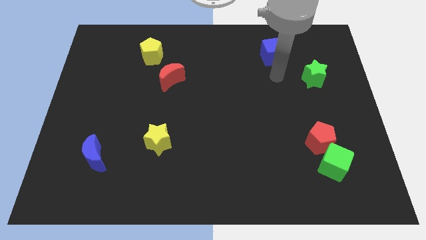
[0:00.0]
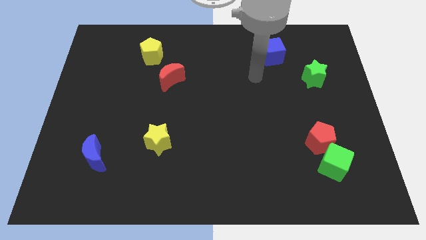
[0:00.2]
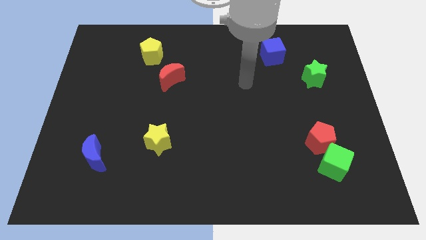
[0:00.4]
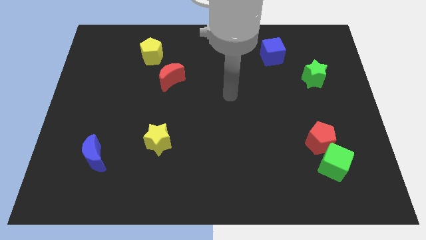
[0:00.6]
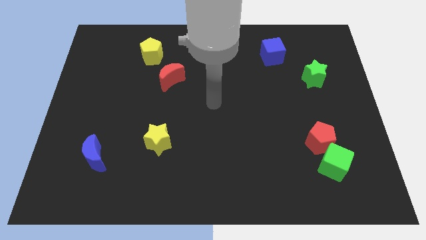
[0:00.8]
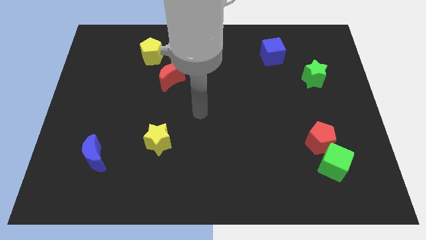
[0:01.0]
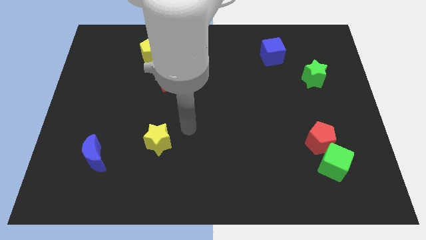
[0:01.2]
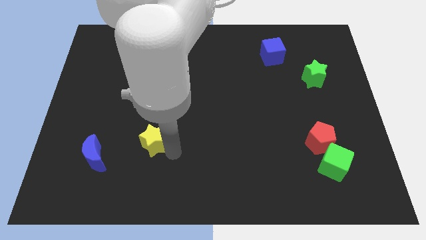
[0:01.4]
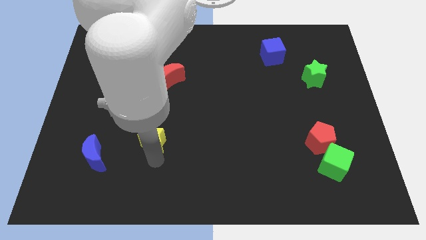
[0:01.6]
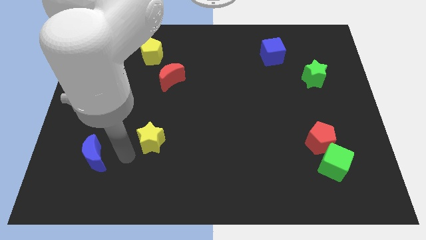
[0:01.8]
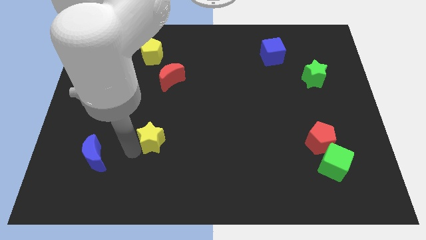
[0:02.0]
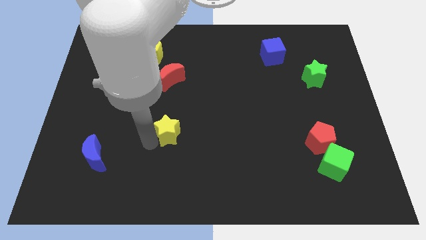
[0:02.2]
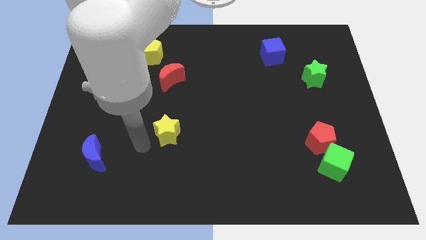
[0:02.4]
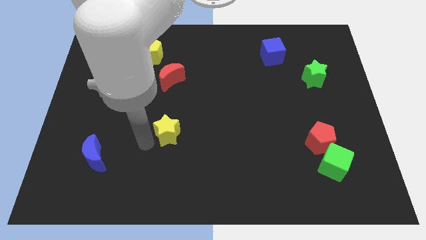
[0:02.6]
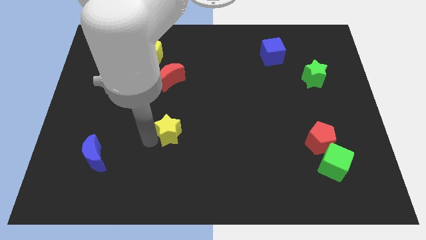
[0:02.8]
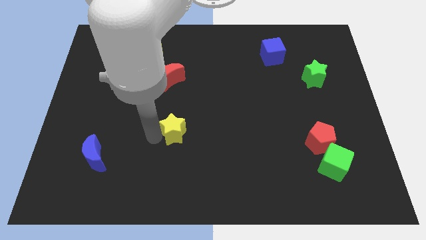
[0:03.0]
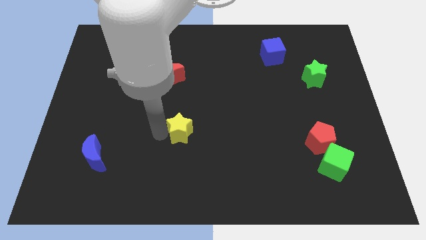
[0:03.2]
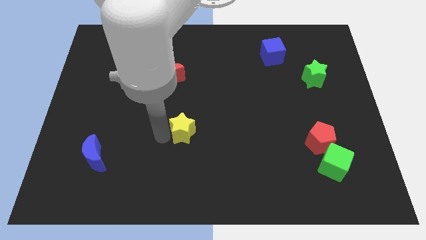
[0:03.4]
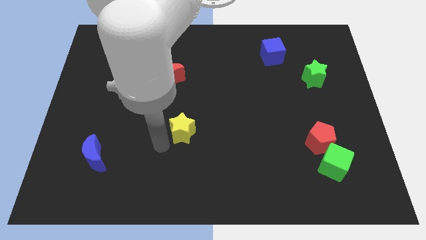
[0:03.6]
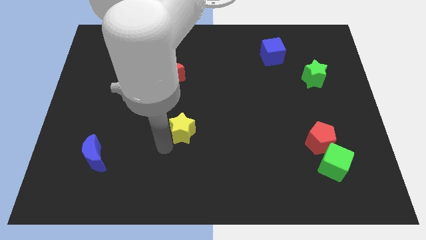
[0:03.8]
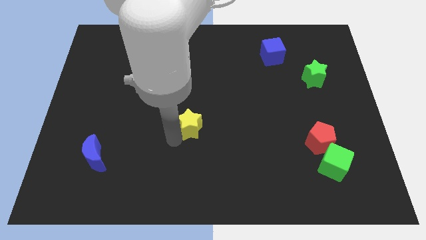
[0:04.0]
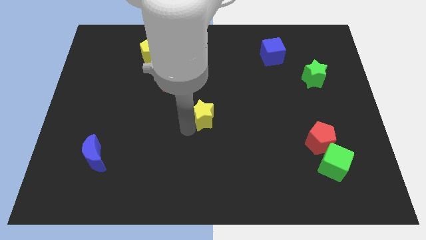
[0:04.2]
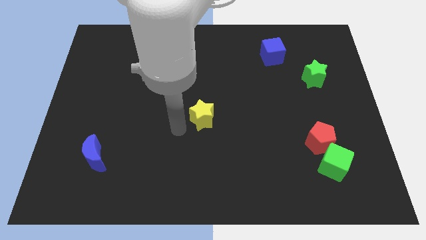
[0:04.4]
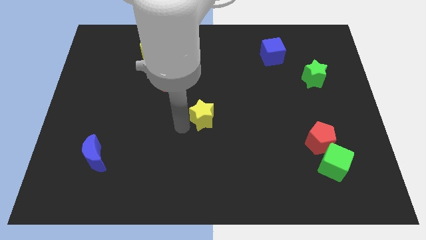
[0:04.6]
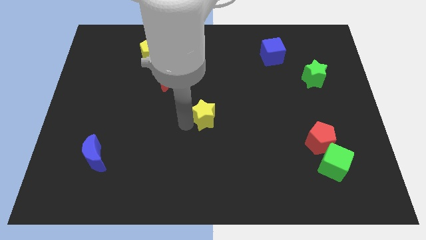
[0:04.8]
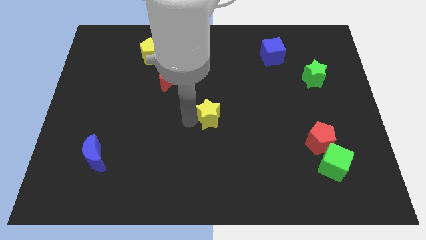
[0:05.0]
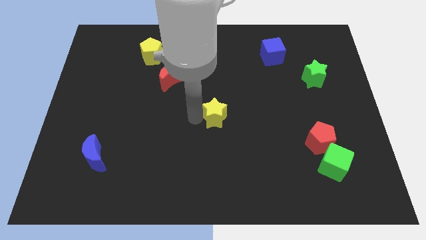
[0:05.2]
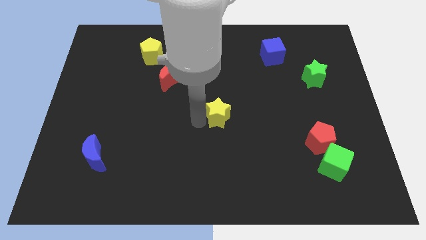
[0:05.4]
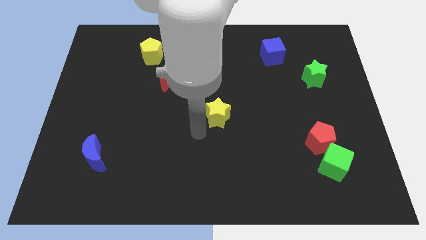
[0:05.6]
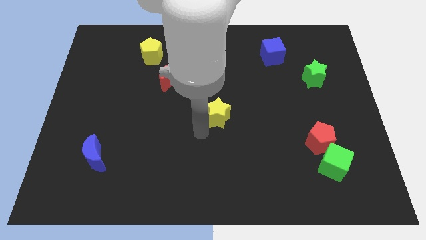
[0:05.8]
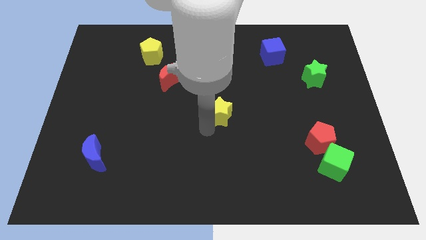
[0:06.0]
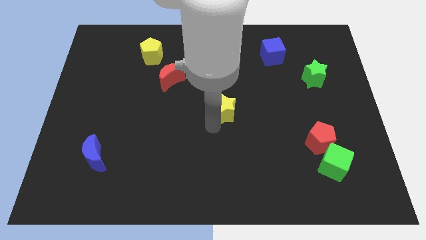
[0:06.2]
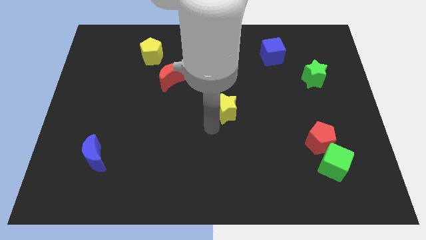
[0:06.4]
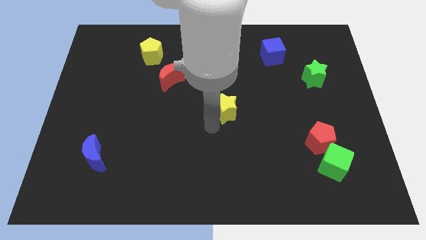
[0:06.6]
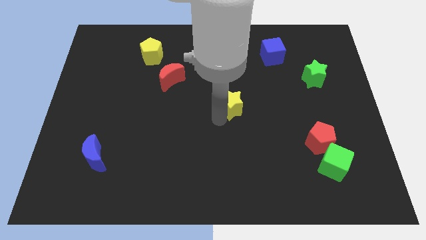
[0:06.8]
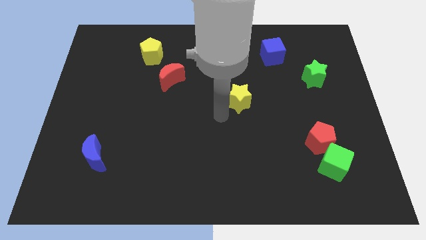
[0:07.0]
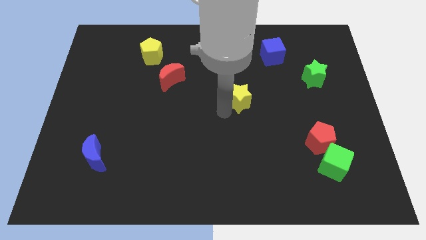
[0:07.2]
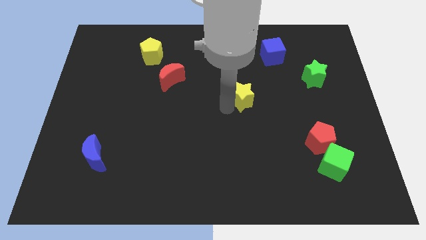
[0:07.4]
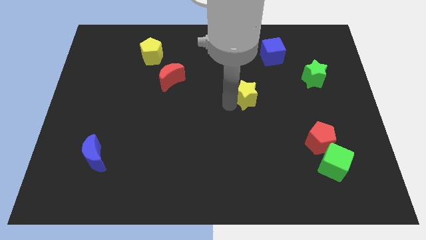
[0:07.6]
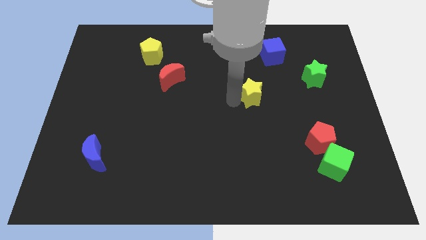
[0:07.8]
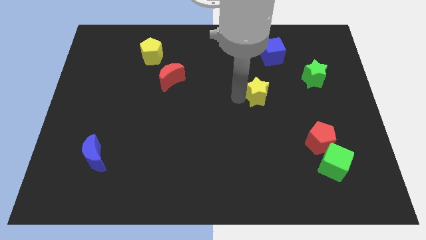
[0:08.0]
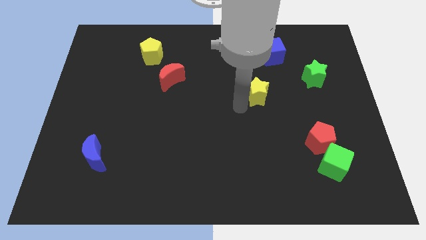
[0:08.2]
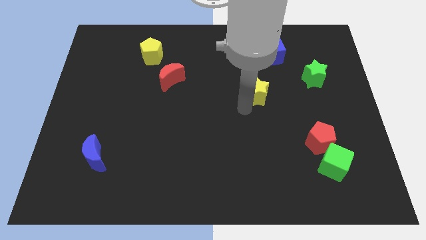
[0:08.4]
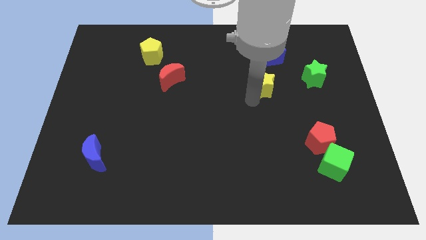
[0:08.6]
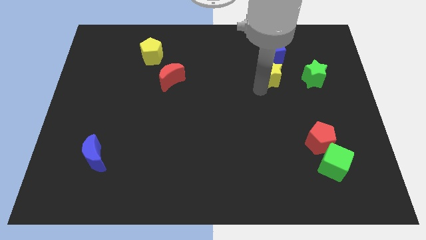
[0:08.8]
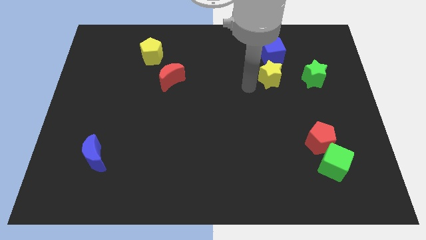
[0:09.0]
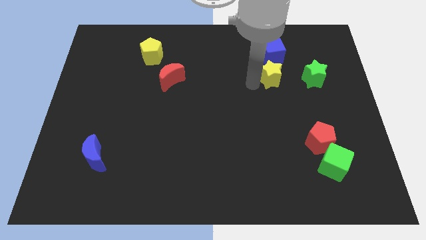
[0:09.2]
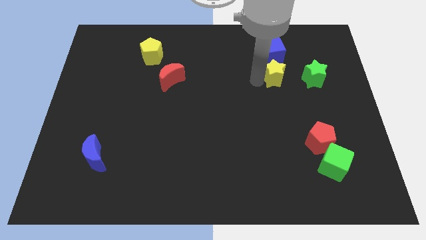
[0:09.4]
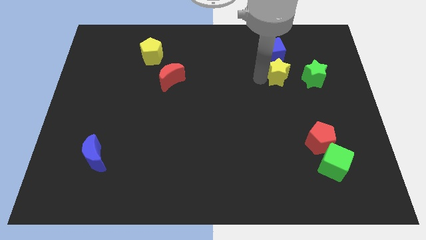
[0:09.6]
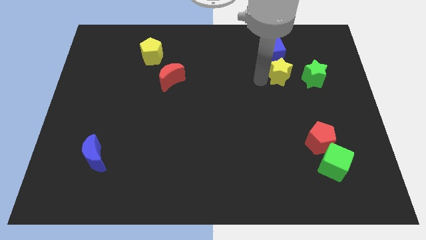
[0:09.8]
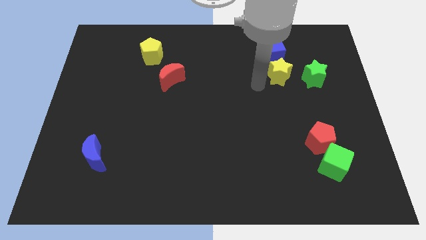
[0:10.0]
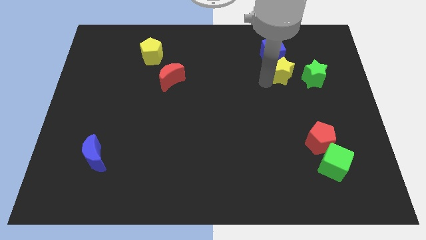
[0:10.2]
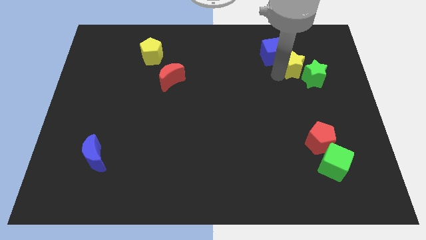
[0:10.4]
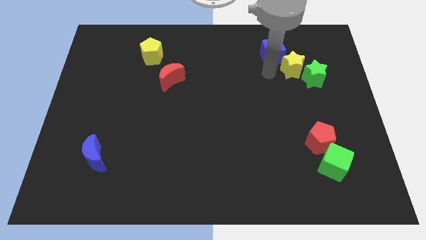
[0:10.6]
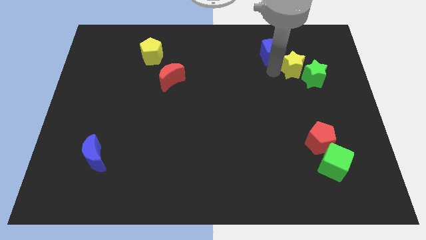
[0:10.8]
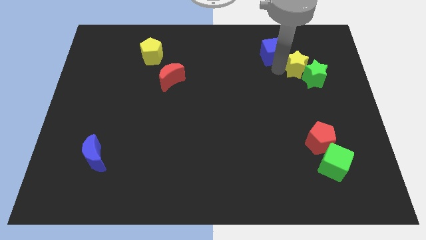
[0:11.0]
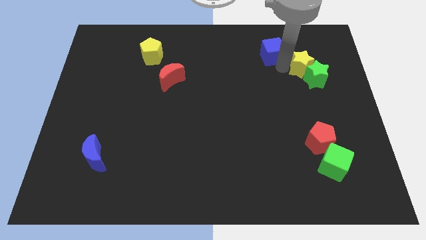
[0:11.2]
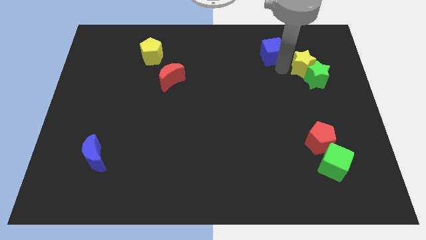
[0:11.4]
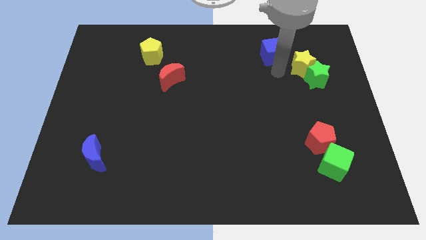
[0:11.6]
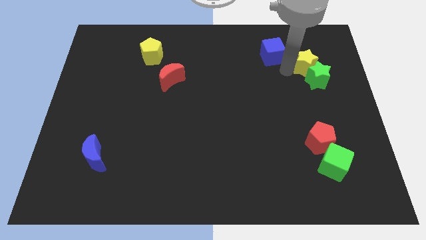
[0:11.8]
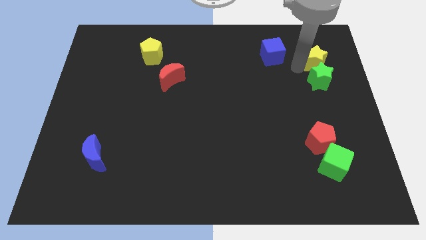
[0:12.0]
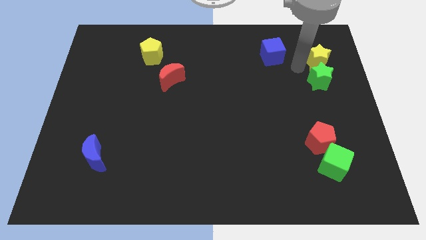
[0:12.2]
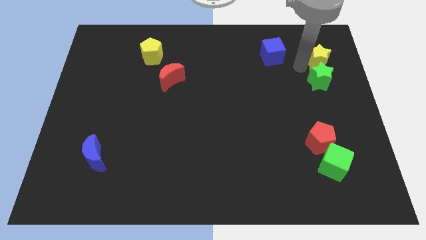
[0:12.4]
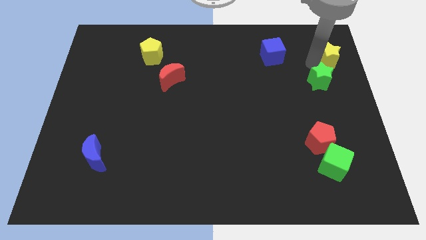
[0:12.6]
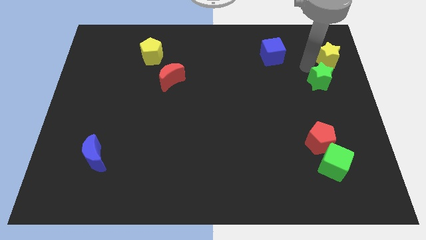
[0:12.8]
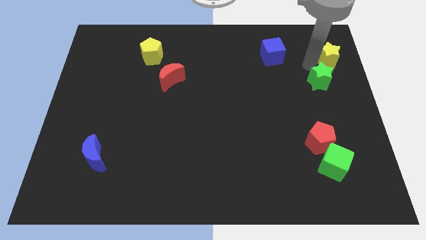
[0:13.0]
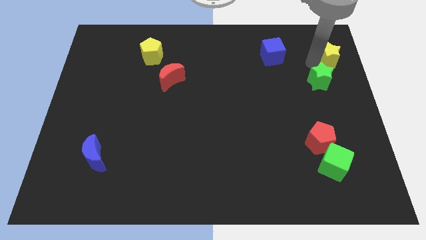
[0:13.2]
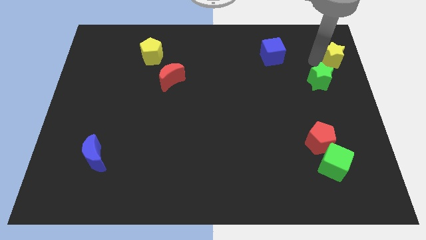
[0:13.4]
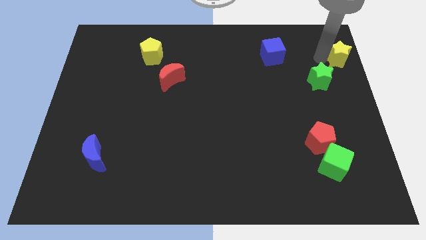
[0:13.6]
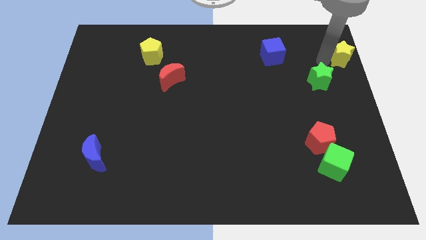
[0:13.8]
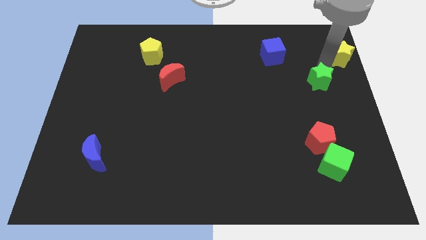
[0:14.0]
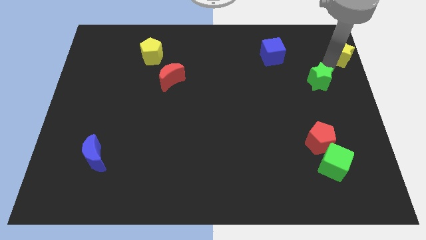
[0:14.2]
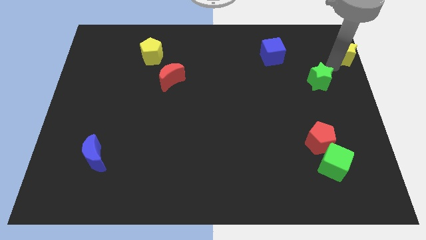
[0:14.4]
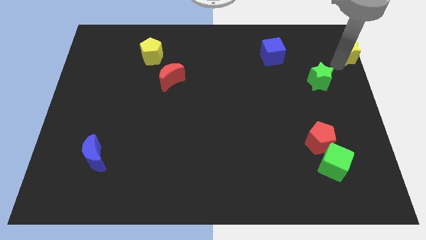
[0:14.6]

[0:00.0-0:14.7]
slide the yellow star to the upper right corner
